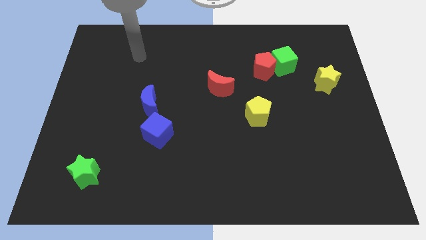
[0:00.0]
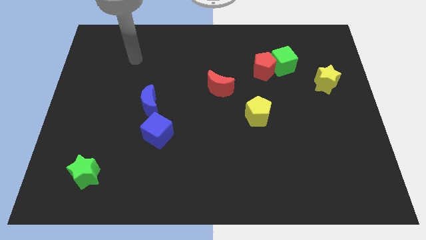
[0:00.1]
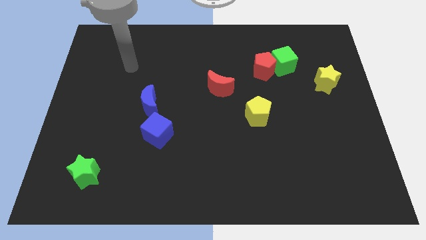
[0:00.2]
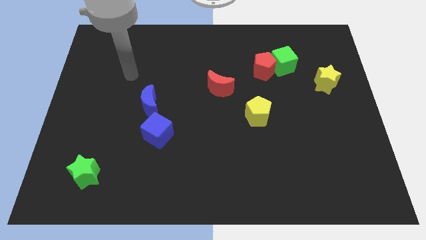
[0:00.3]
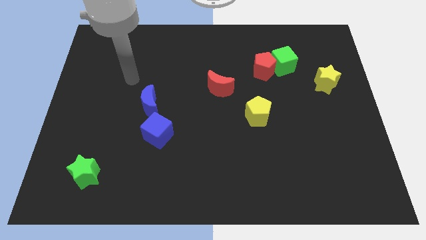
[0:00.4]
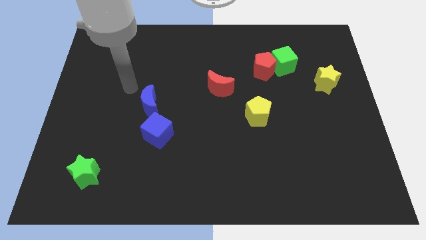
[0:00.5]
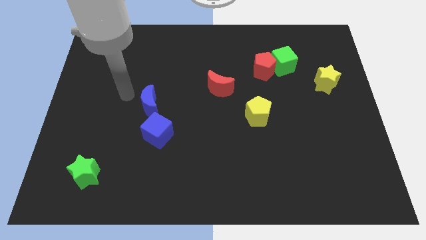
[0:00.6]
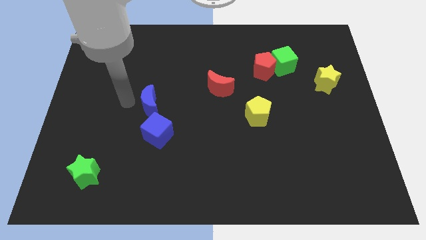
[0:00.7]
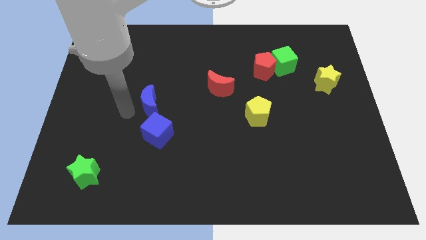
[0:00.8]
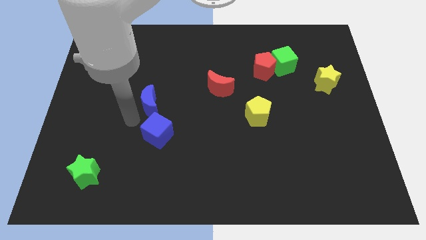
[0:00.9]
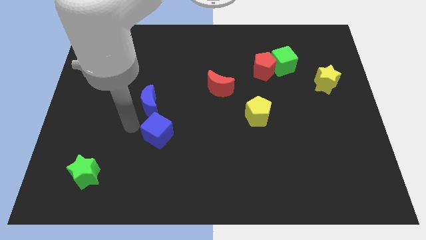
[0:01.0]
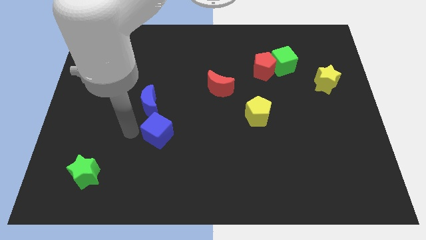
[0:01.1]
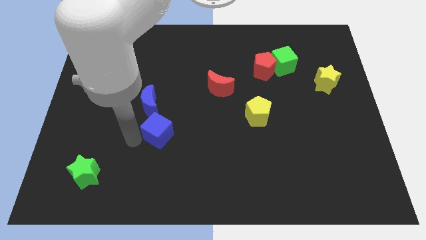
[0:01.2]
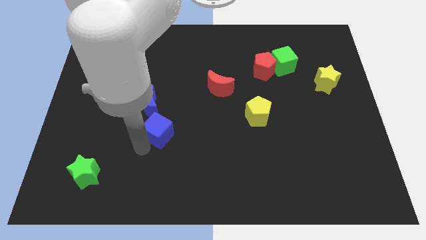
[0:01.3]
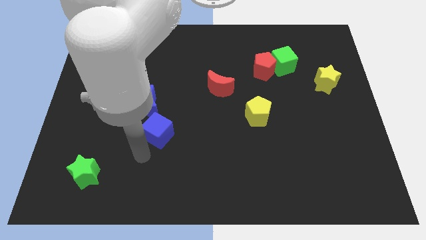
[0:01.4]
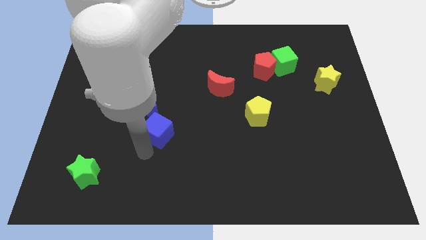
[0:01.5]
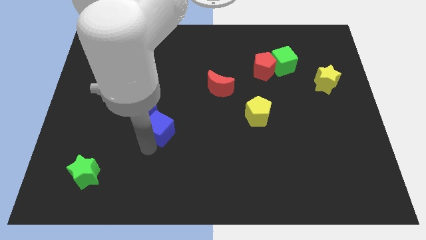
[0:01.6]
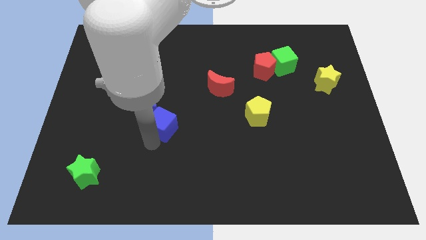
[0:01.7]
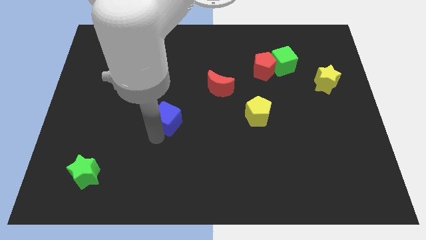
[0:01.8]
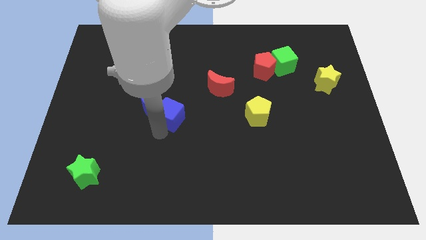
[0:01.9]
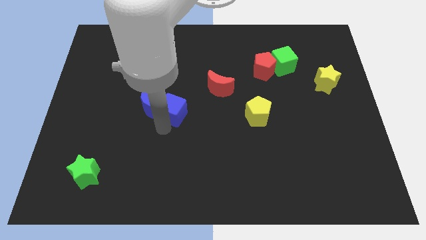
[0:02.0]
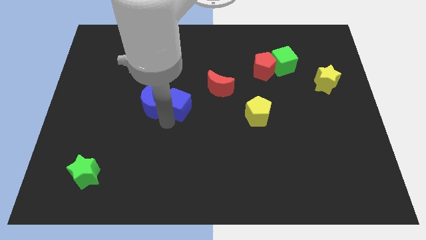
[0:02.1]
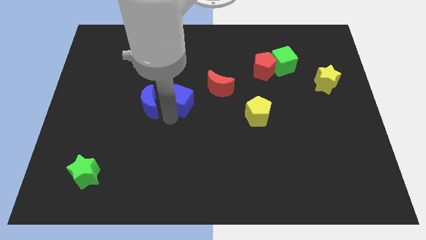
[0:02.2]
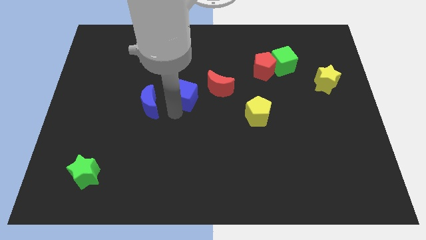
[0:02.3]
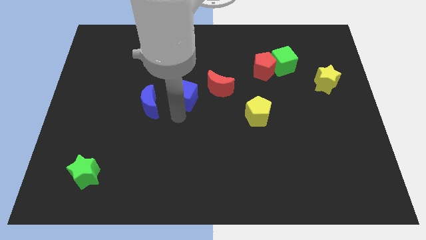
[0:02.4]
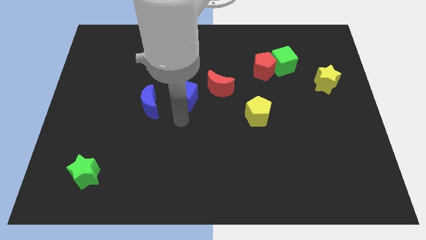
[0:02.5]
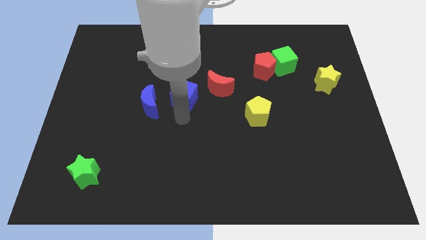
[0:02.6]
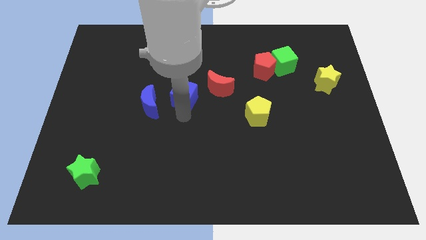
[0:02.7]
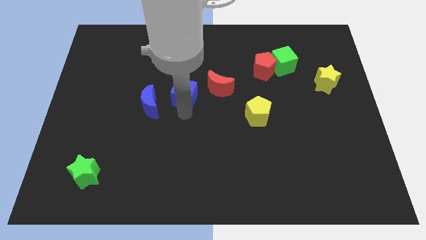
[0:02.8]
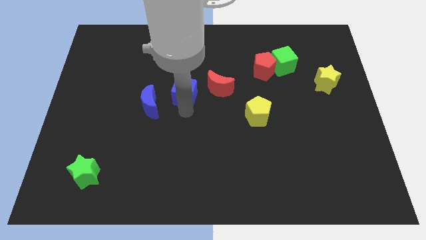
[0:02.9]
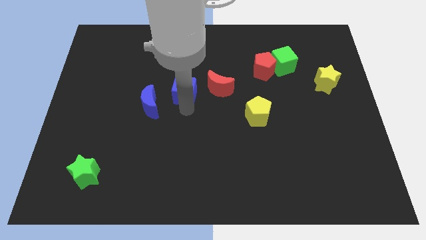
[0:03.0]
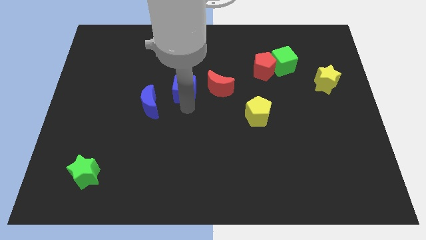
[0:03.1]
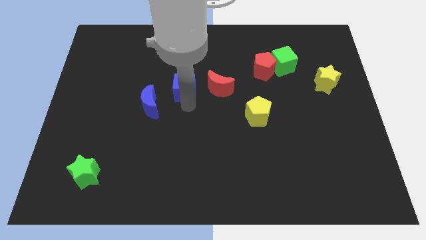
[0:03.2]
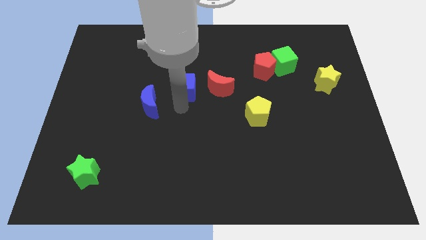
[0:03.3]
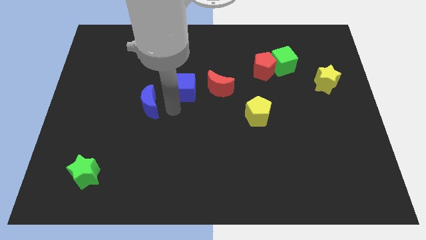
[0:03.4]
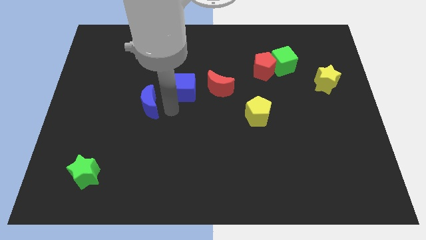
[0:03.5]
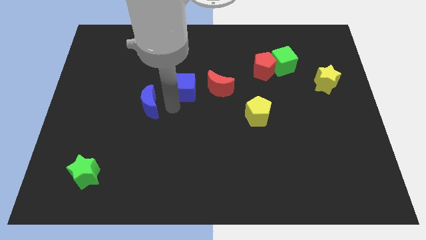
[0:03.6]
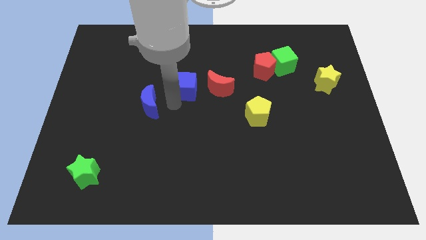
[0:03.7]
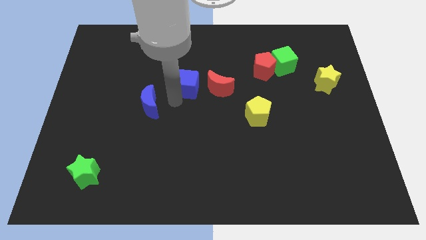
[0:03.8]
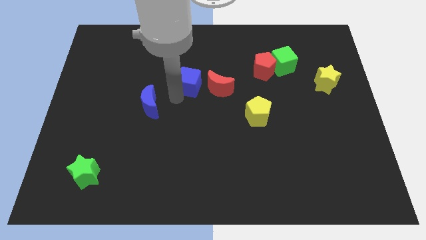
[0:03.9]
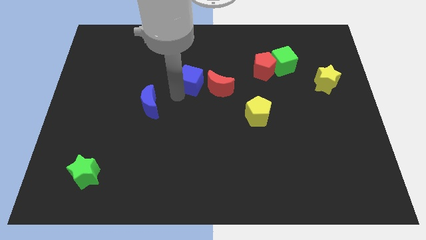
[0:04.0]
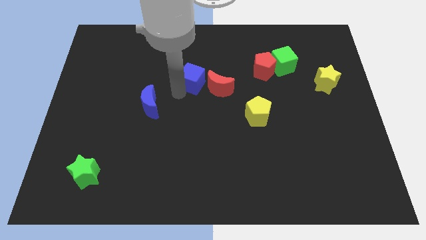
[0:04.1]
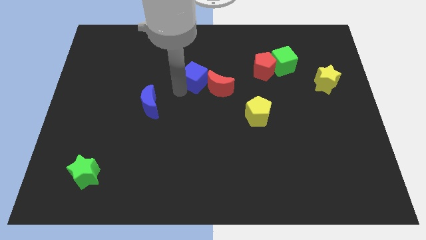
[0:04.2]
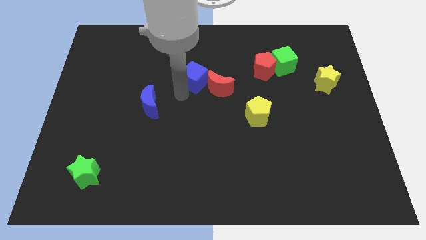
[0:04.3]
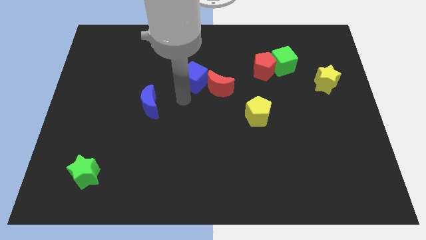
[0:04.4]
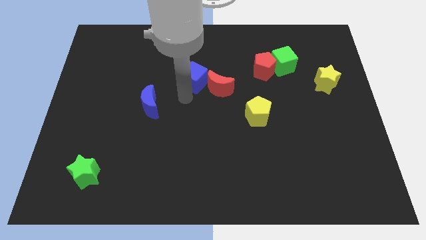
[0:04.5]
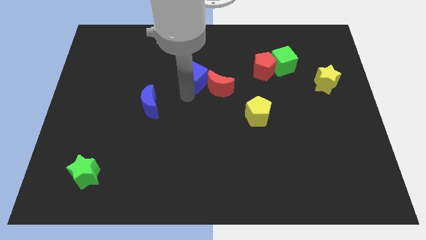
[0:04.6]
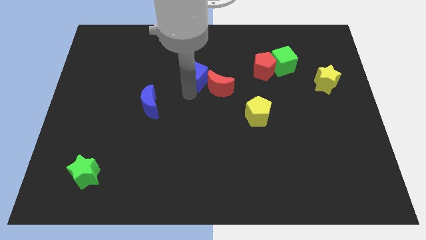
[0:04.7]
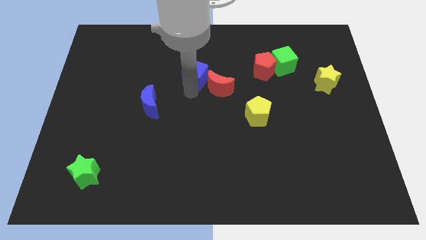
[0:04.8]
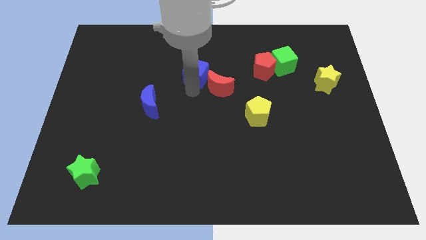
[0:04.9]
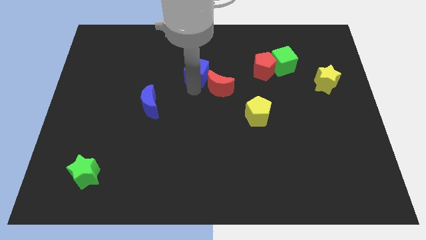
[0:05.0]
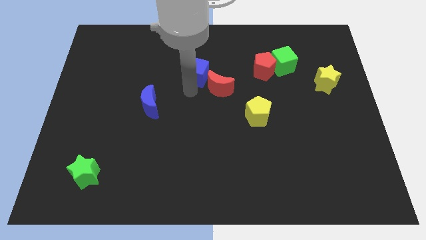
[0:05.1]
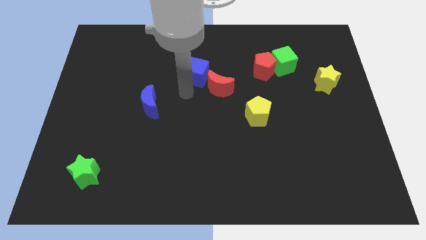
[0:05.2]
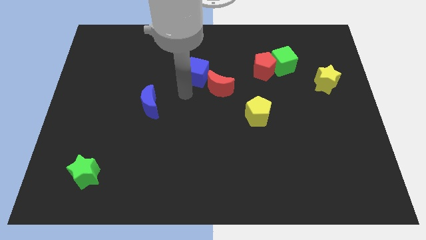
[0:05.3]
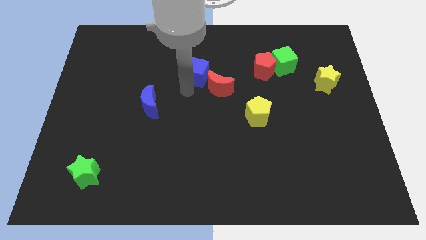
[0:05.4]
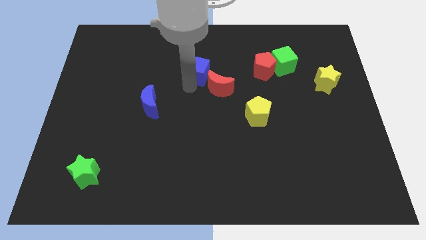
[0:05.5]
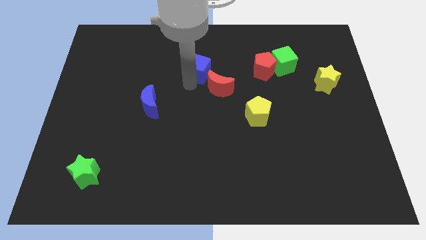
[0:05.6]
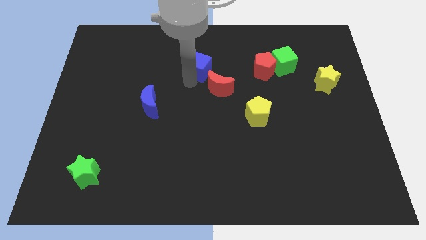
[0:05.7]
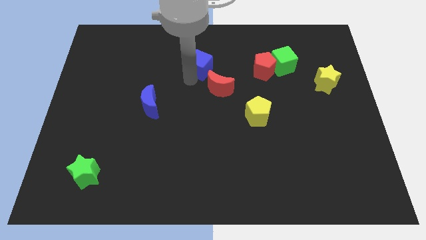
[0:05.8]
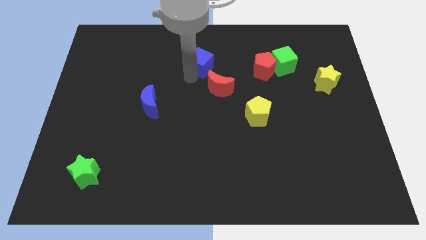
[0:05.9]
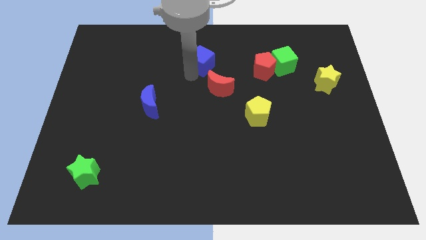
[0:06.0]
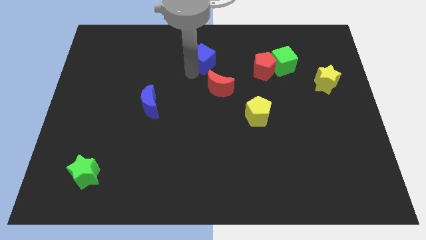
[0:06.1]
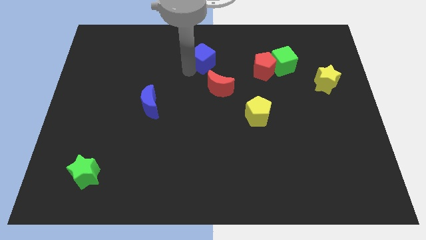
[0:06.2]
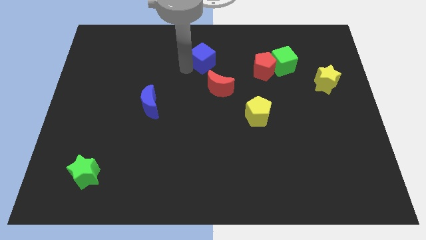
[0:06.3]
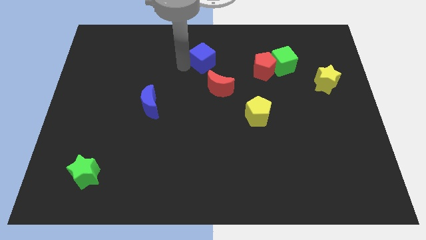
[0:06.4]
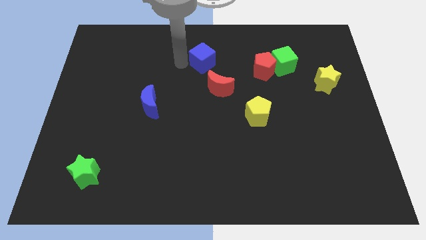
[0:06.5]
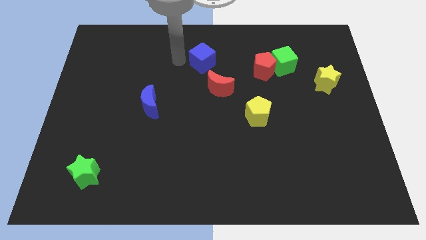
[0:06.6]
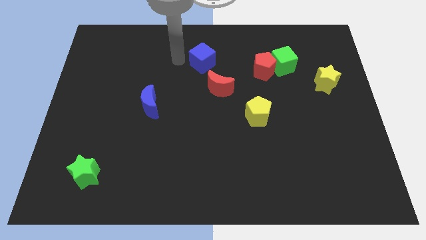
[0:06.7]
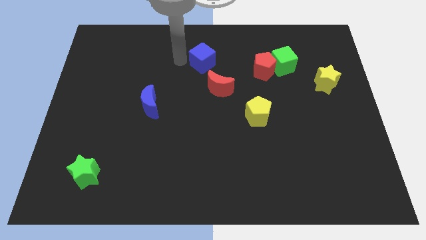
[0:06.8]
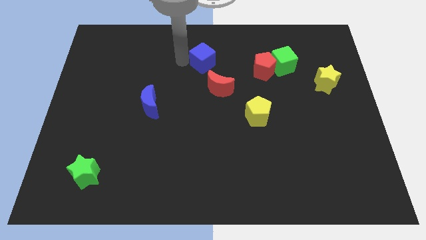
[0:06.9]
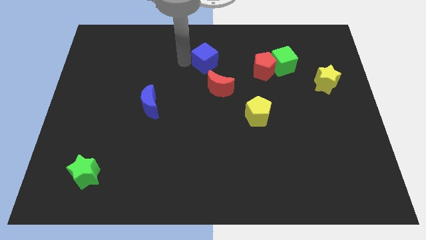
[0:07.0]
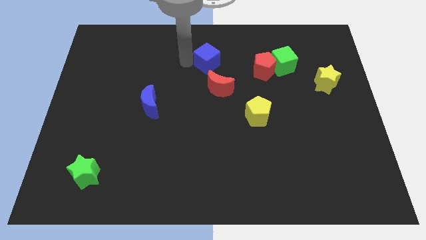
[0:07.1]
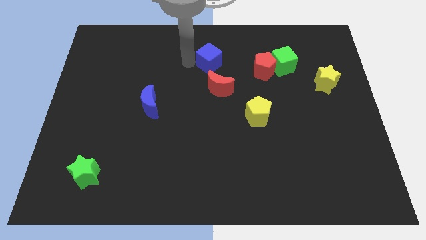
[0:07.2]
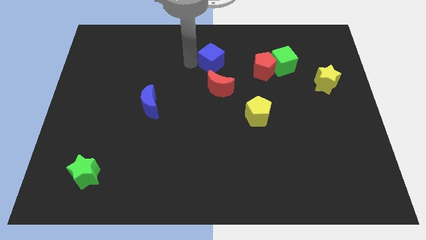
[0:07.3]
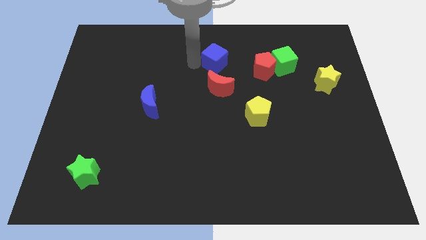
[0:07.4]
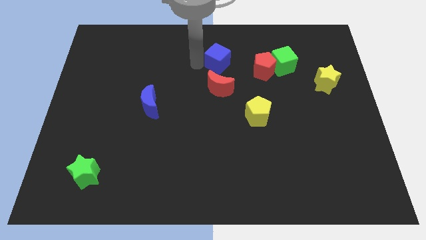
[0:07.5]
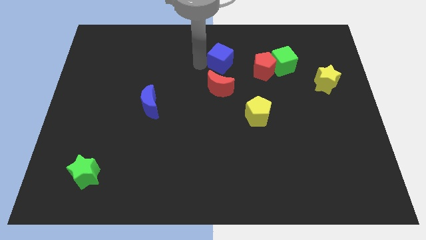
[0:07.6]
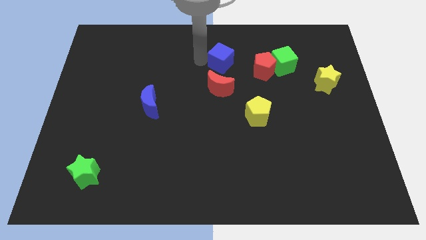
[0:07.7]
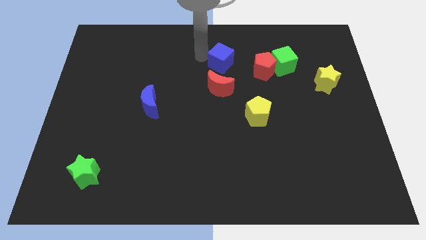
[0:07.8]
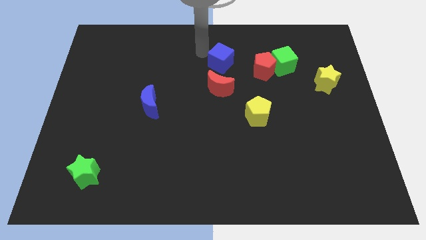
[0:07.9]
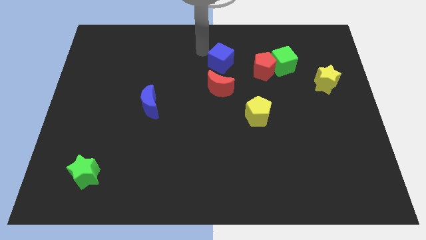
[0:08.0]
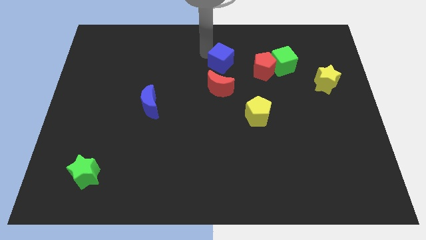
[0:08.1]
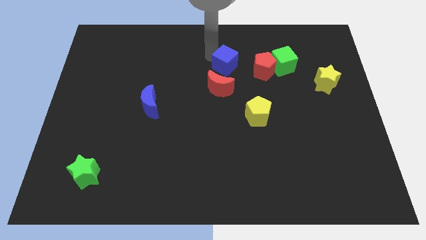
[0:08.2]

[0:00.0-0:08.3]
move the blue cube diagonally up and to the right of the red moon
